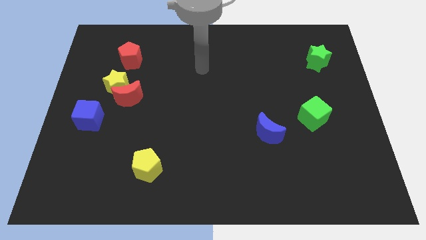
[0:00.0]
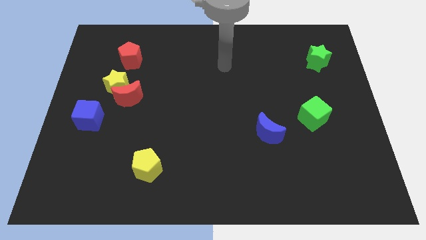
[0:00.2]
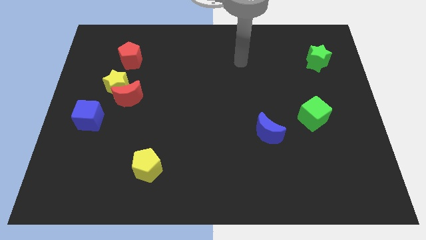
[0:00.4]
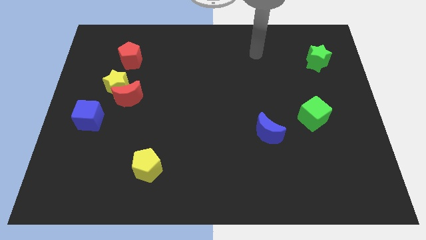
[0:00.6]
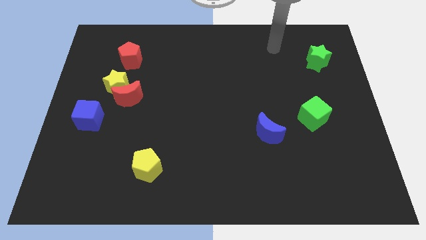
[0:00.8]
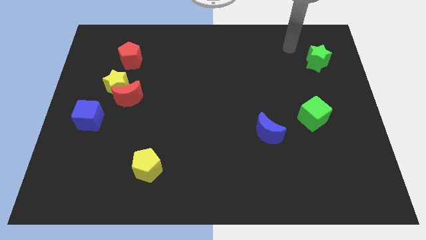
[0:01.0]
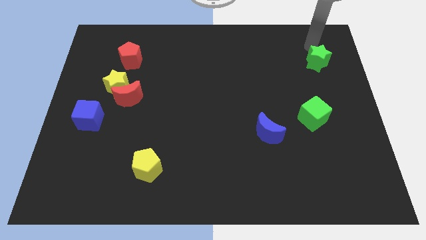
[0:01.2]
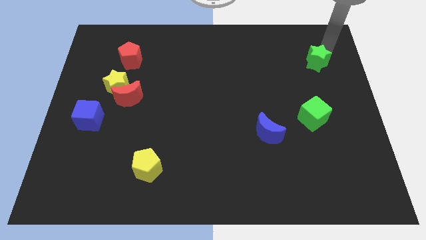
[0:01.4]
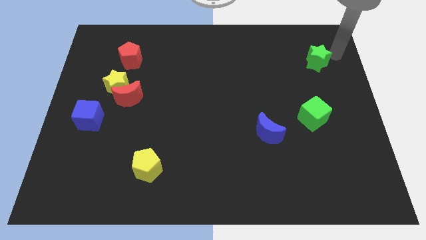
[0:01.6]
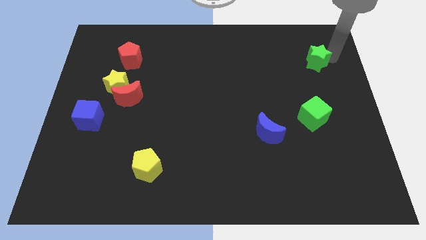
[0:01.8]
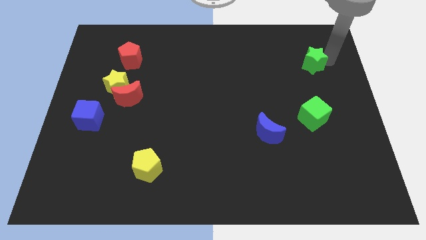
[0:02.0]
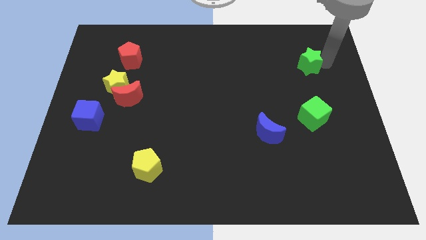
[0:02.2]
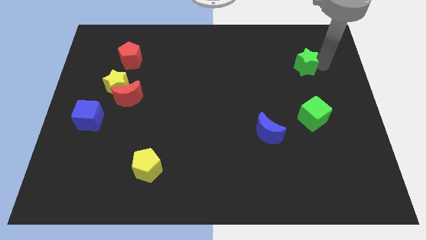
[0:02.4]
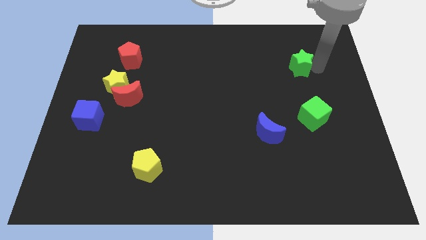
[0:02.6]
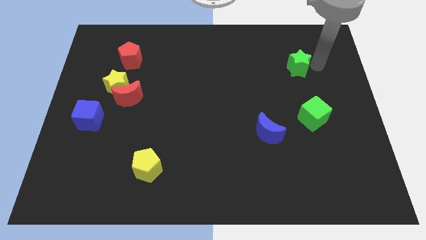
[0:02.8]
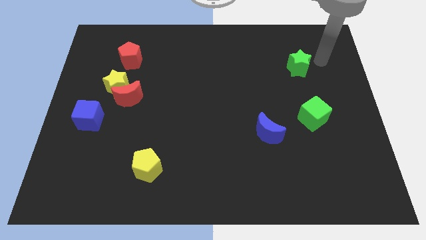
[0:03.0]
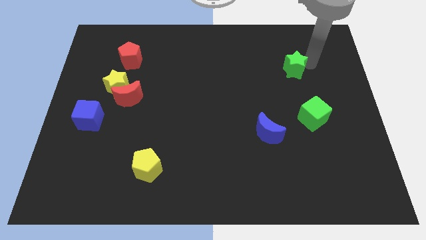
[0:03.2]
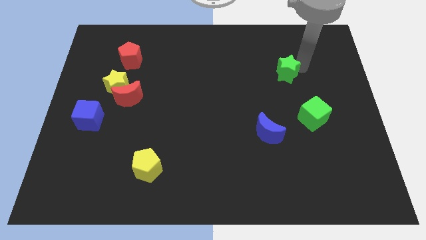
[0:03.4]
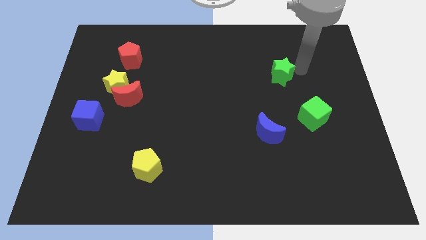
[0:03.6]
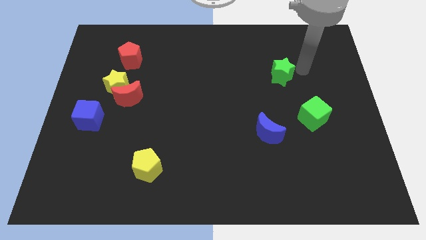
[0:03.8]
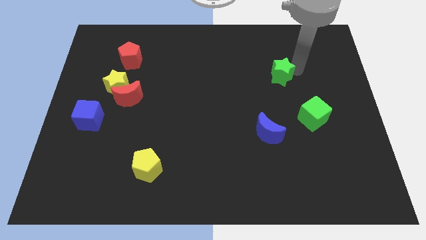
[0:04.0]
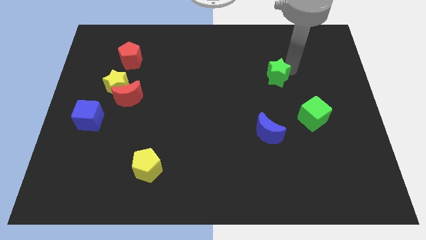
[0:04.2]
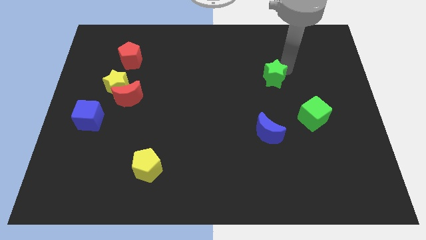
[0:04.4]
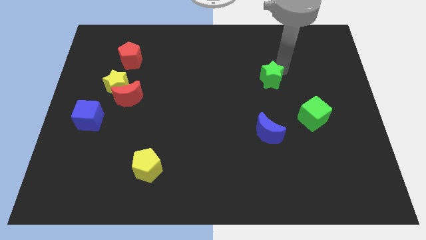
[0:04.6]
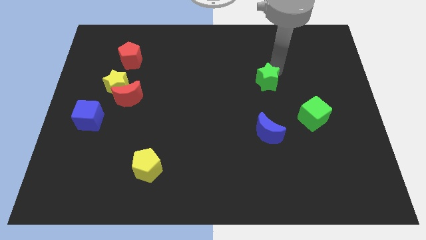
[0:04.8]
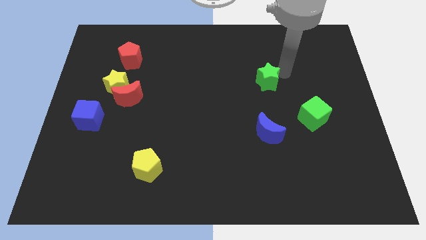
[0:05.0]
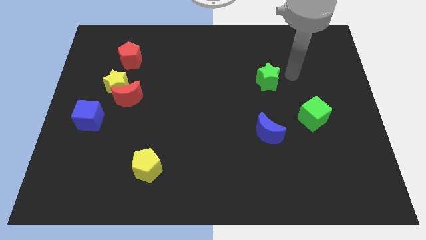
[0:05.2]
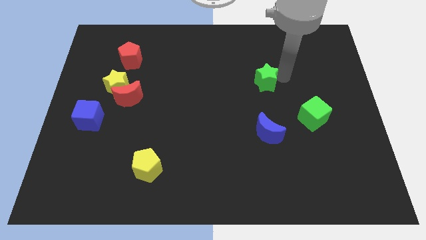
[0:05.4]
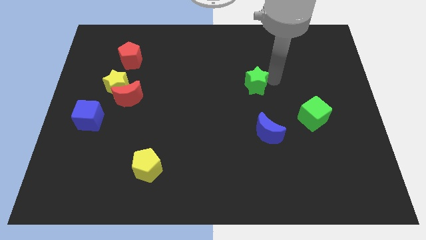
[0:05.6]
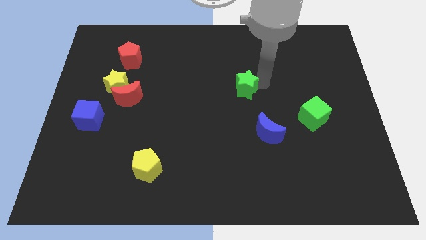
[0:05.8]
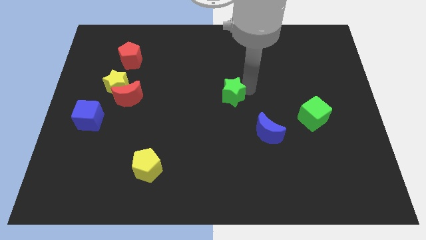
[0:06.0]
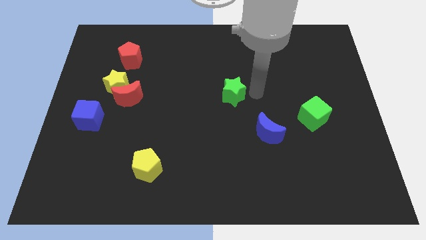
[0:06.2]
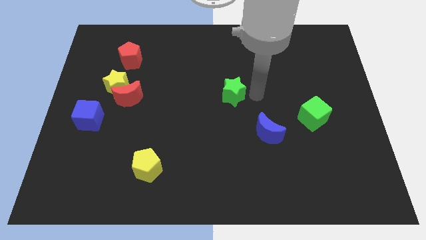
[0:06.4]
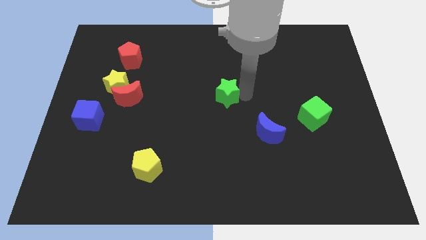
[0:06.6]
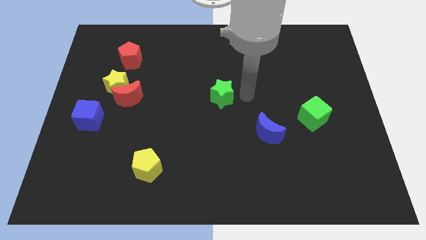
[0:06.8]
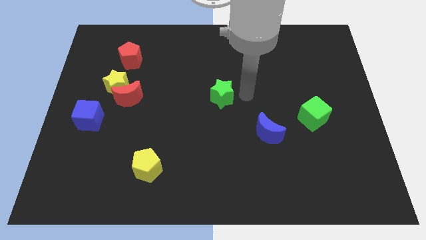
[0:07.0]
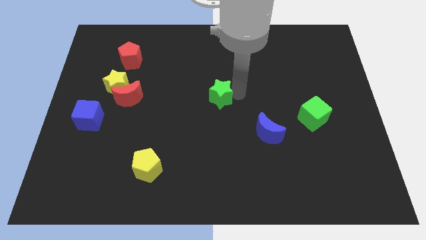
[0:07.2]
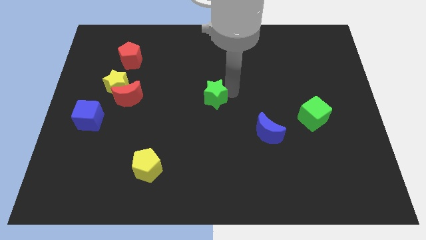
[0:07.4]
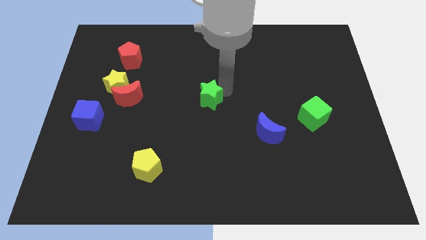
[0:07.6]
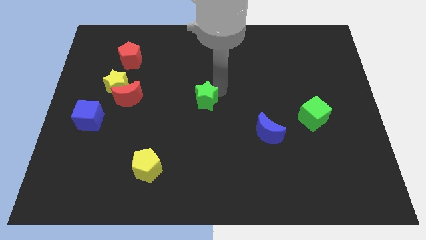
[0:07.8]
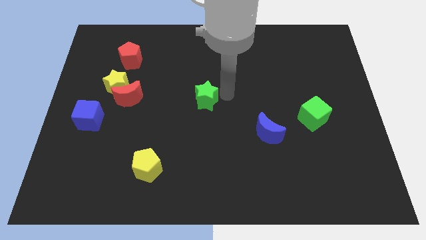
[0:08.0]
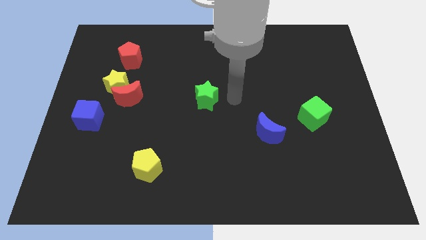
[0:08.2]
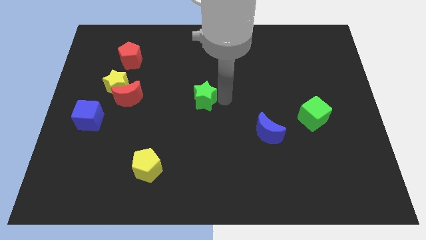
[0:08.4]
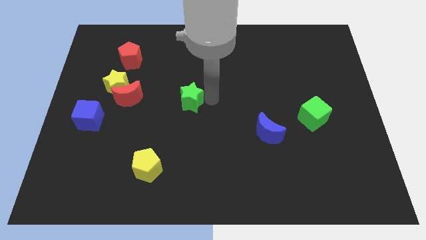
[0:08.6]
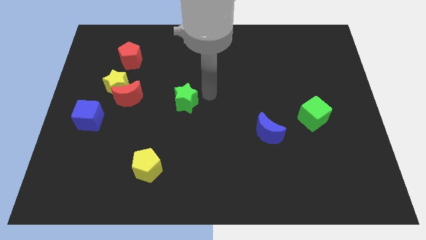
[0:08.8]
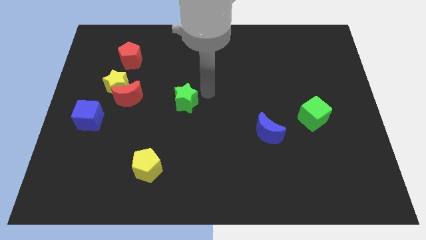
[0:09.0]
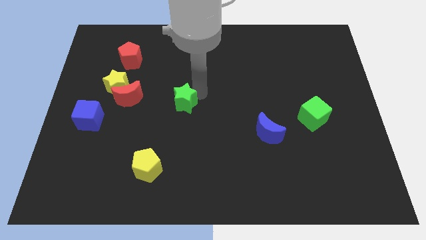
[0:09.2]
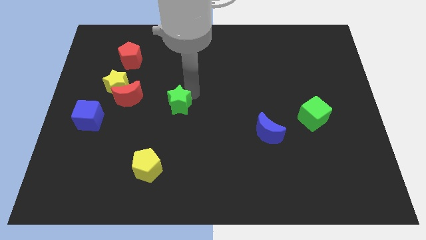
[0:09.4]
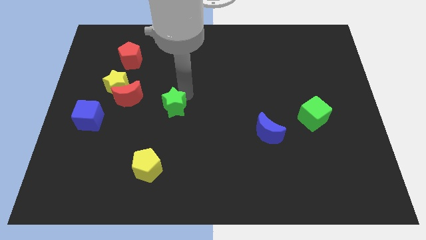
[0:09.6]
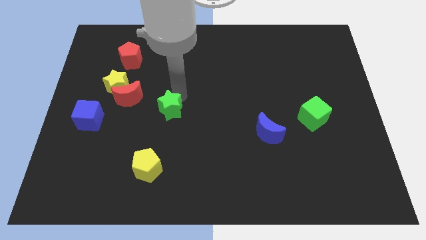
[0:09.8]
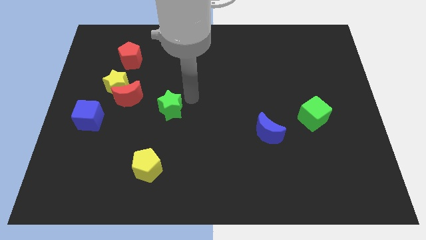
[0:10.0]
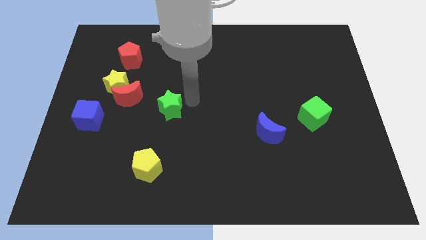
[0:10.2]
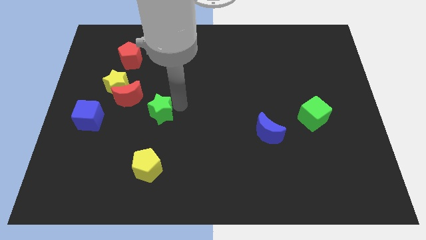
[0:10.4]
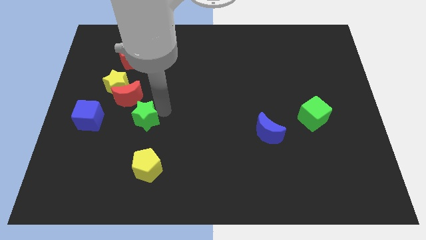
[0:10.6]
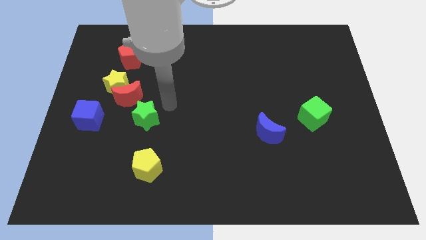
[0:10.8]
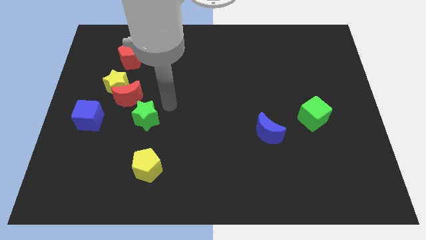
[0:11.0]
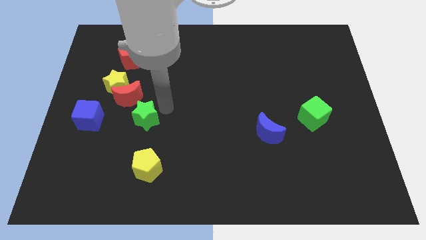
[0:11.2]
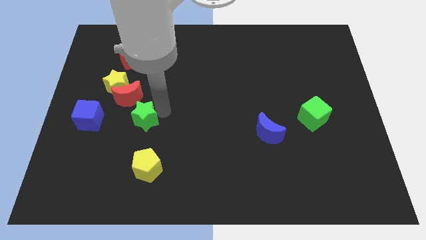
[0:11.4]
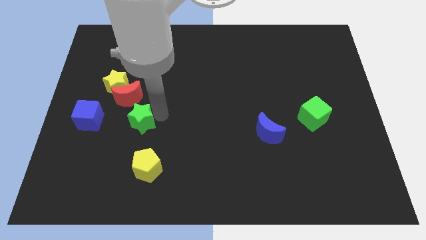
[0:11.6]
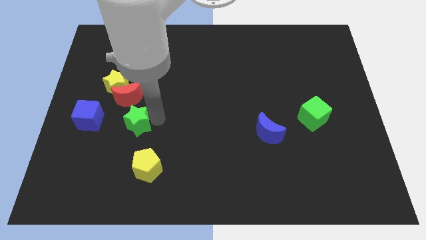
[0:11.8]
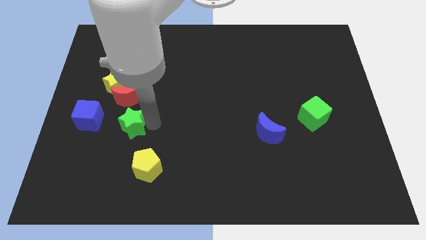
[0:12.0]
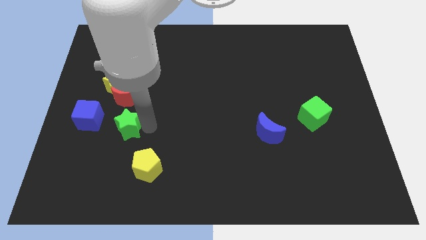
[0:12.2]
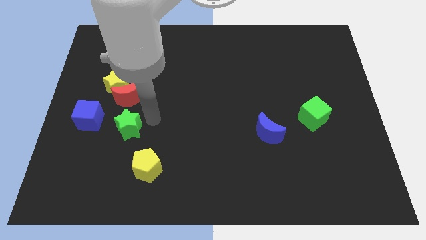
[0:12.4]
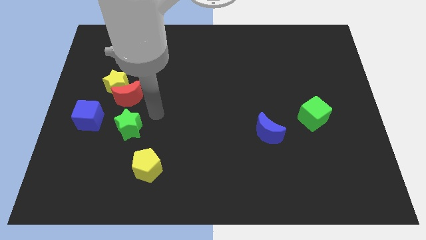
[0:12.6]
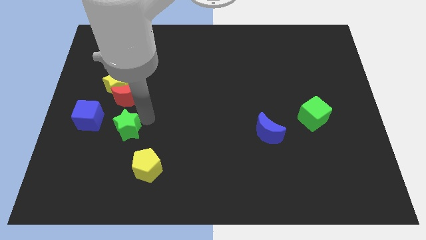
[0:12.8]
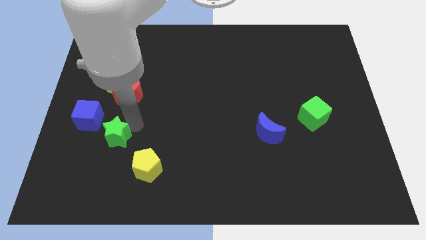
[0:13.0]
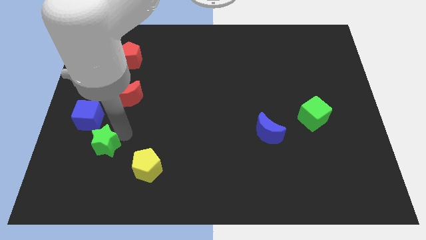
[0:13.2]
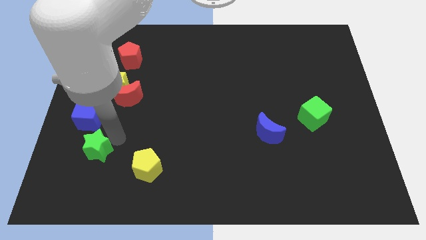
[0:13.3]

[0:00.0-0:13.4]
push the green star to the bottom of the blue cube
